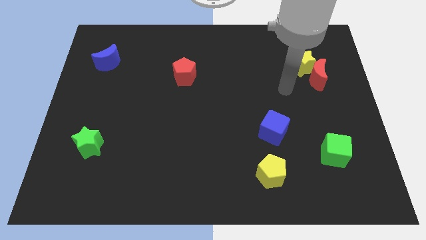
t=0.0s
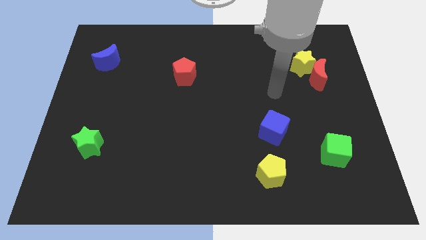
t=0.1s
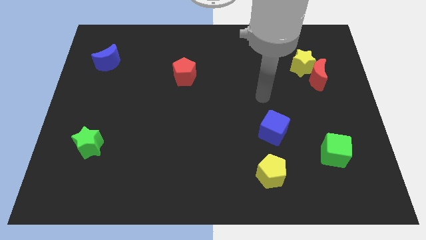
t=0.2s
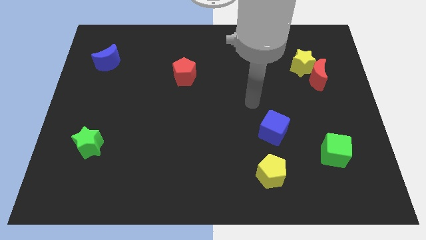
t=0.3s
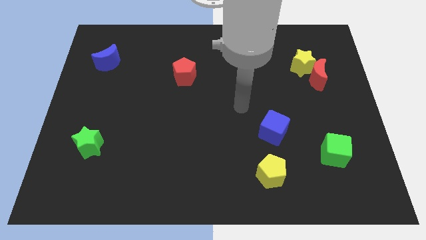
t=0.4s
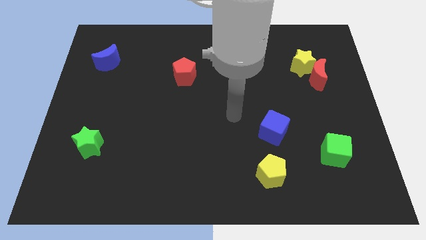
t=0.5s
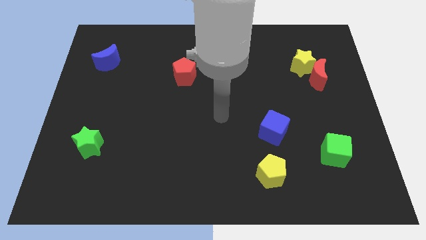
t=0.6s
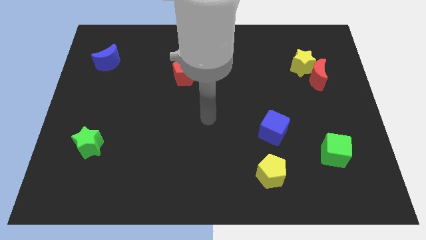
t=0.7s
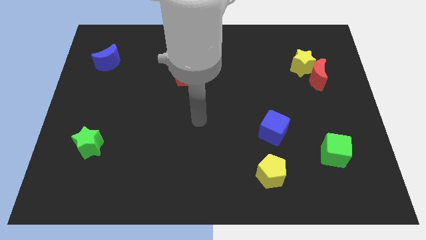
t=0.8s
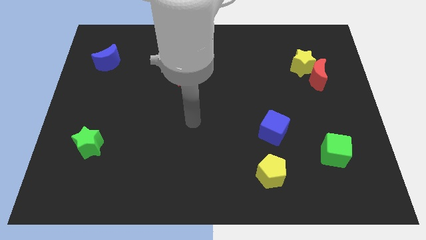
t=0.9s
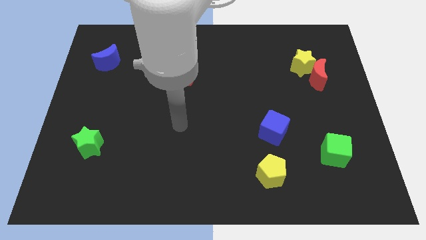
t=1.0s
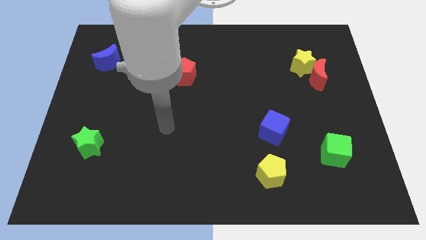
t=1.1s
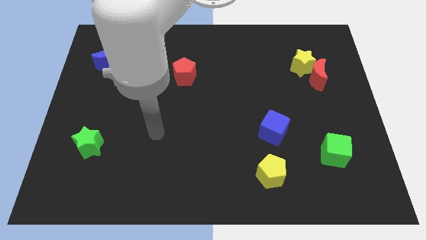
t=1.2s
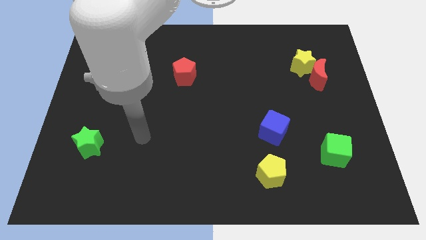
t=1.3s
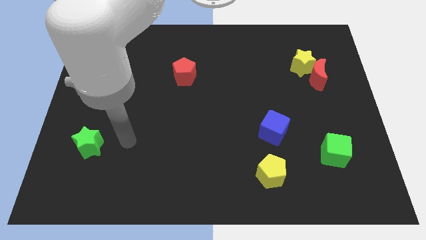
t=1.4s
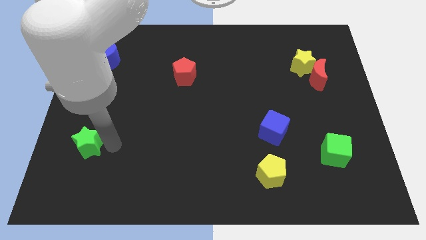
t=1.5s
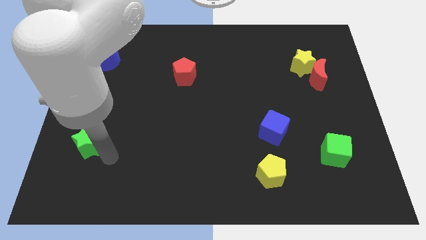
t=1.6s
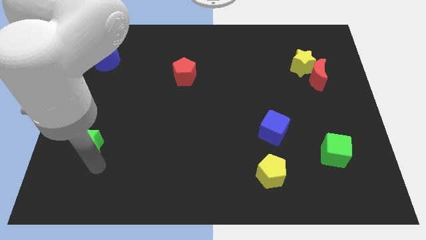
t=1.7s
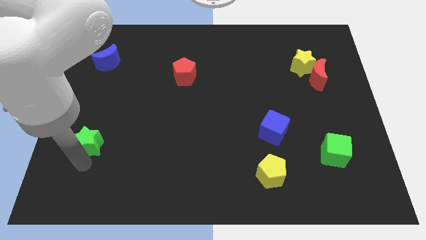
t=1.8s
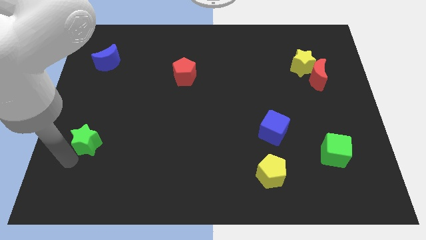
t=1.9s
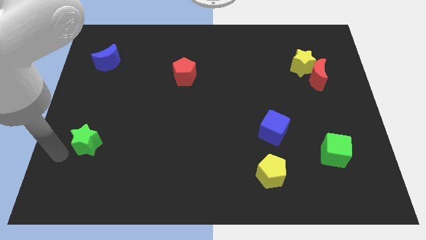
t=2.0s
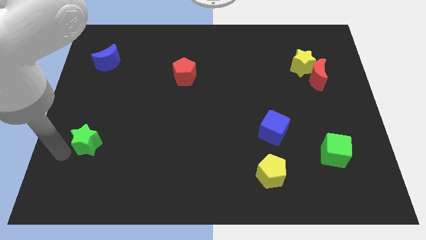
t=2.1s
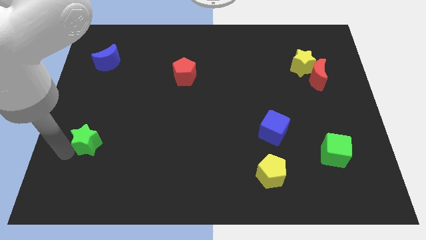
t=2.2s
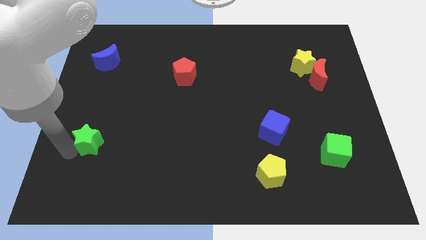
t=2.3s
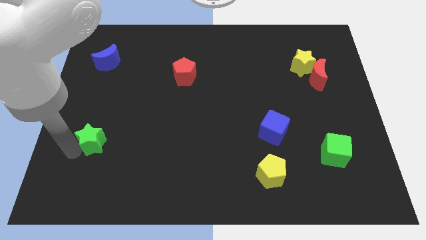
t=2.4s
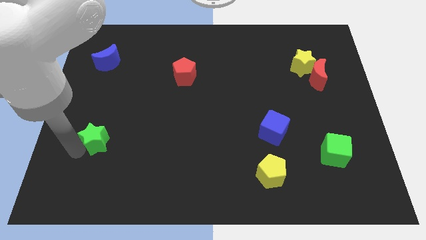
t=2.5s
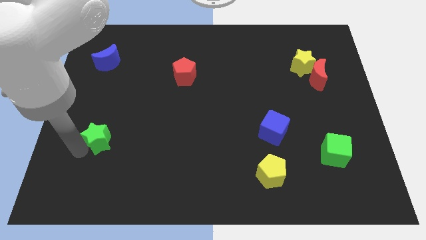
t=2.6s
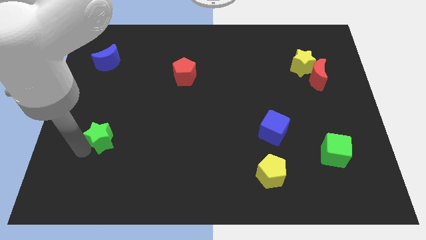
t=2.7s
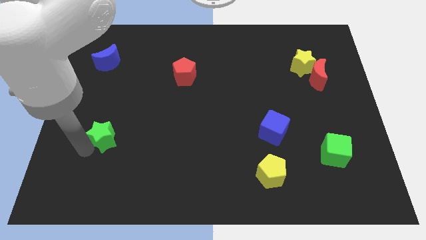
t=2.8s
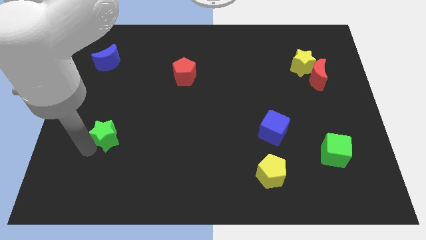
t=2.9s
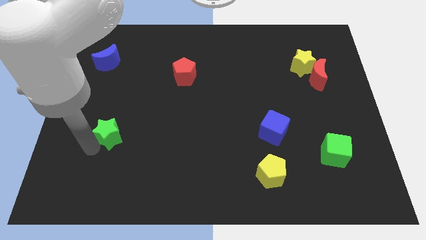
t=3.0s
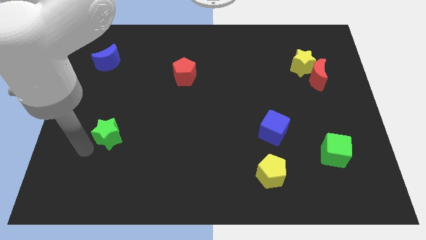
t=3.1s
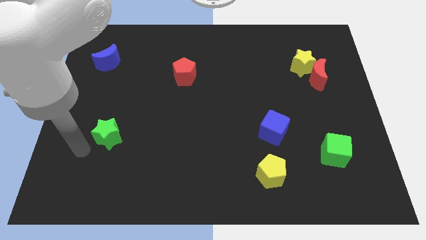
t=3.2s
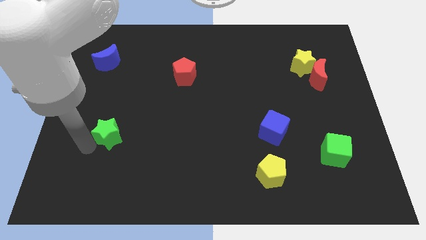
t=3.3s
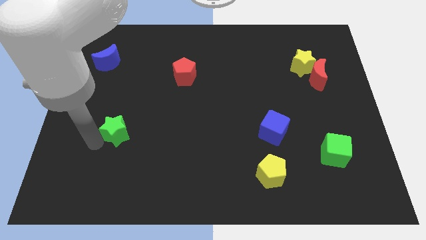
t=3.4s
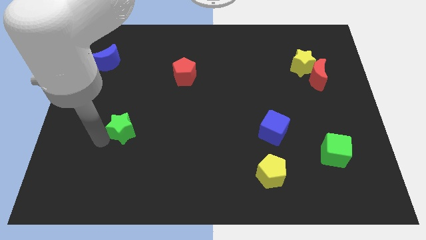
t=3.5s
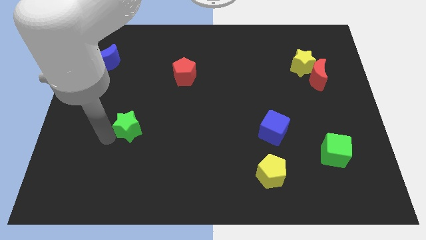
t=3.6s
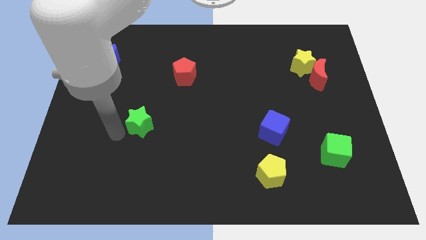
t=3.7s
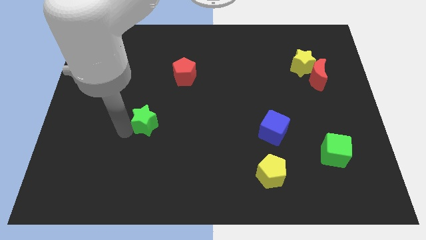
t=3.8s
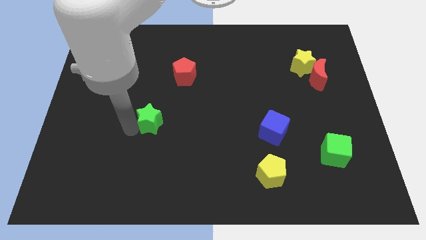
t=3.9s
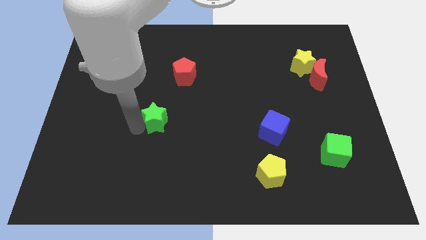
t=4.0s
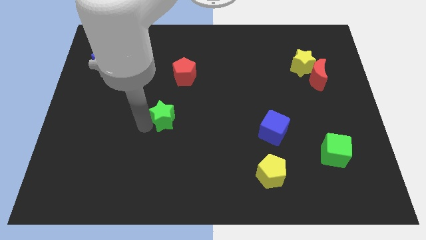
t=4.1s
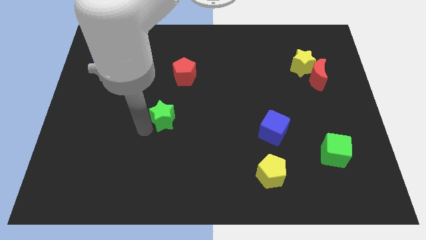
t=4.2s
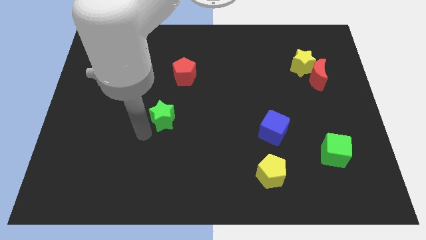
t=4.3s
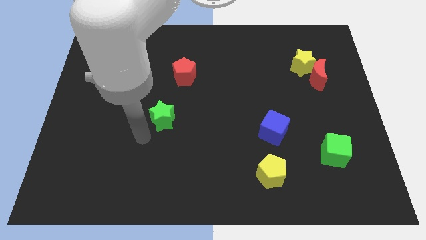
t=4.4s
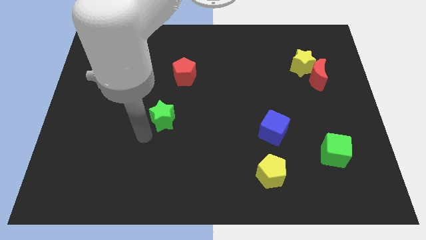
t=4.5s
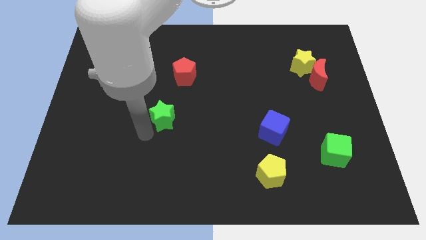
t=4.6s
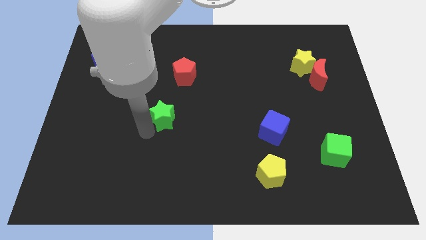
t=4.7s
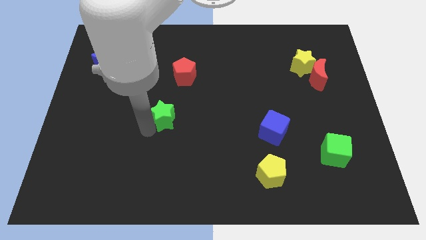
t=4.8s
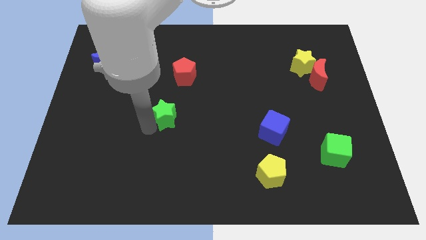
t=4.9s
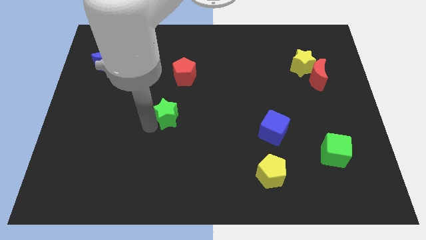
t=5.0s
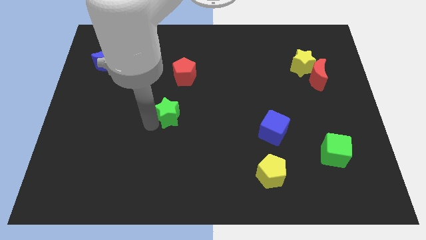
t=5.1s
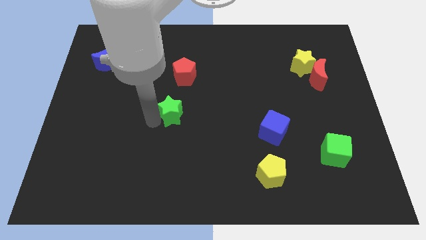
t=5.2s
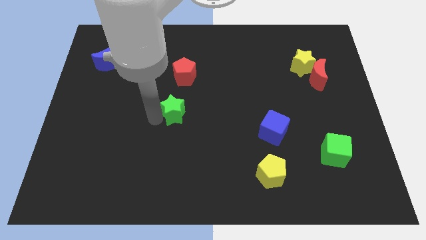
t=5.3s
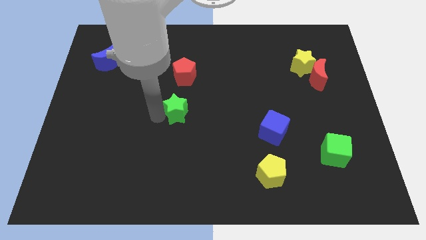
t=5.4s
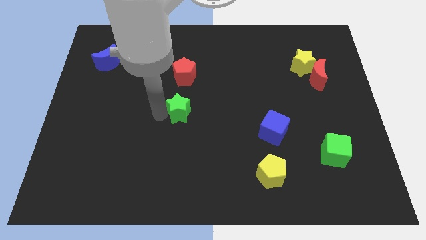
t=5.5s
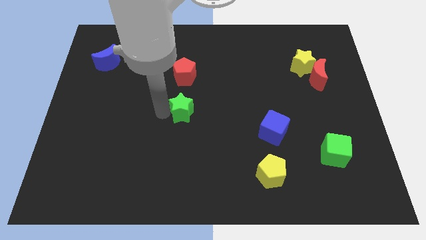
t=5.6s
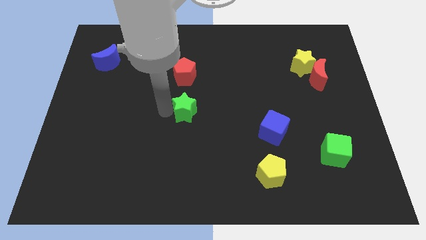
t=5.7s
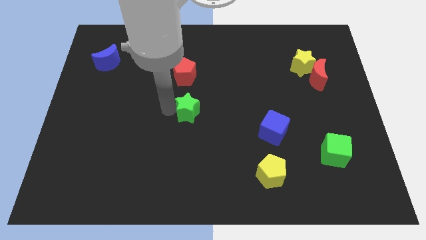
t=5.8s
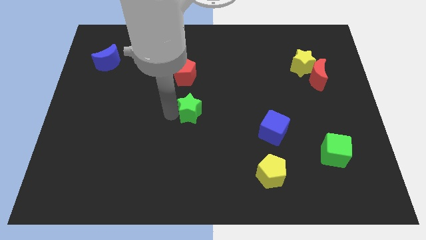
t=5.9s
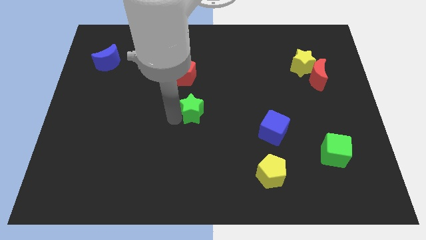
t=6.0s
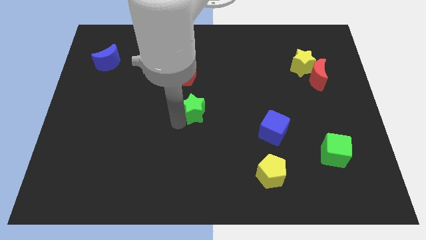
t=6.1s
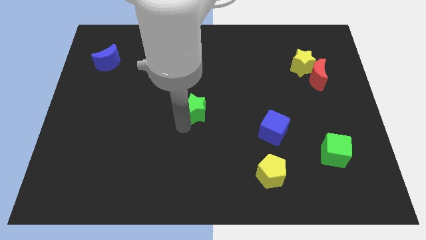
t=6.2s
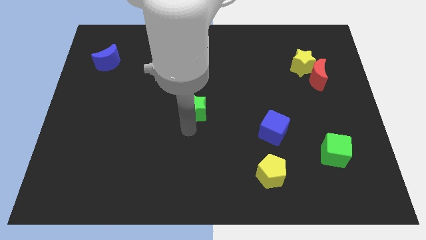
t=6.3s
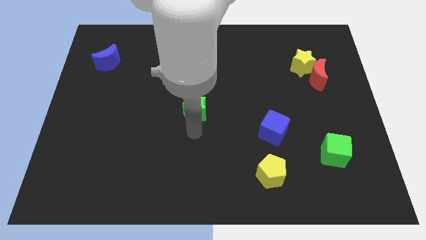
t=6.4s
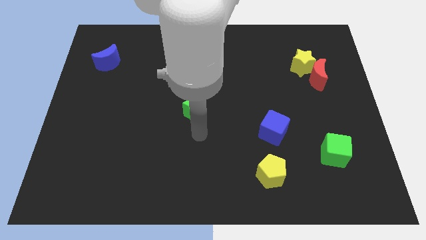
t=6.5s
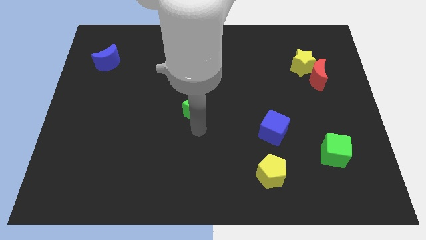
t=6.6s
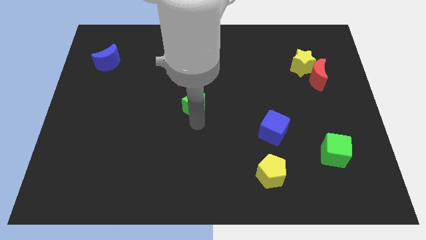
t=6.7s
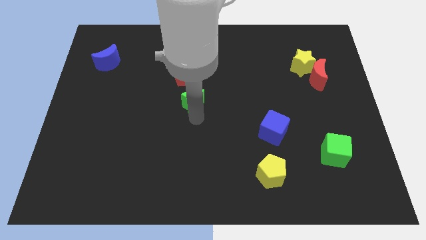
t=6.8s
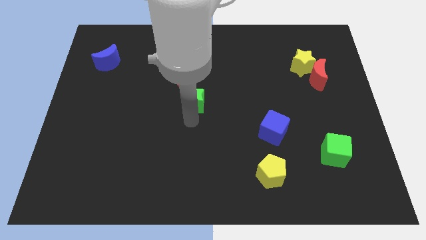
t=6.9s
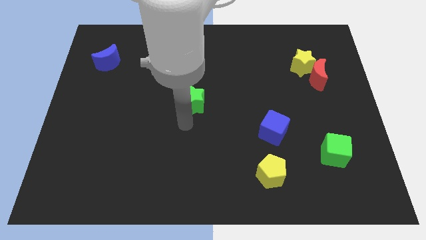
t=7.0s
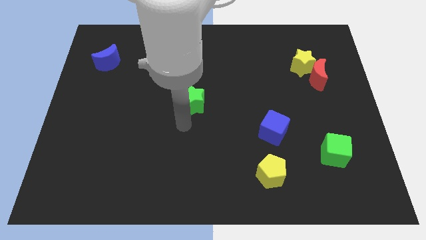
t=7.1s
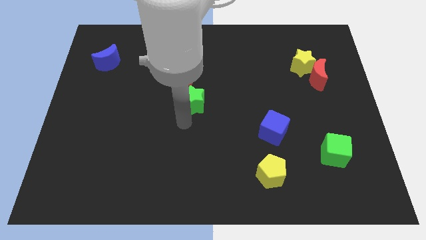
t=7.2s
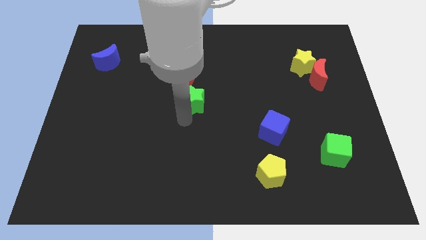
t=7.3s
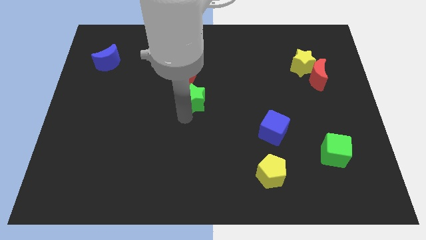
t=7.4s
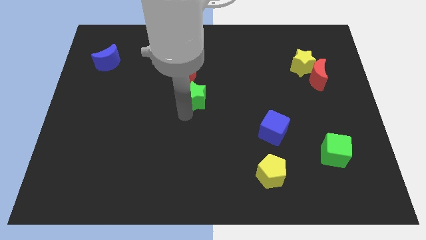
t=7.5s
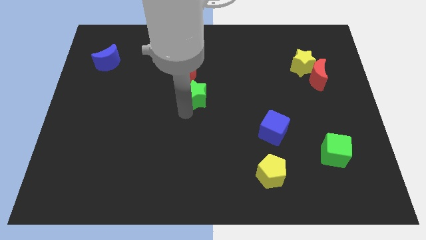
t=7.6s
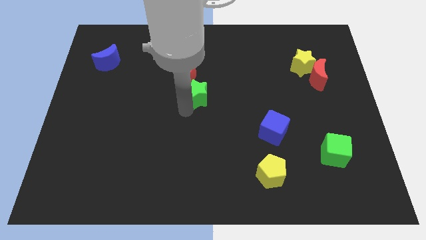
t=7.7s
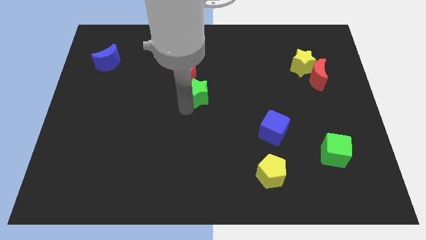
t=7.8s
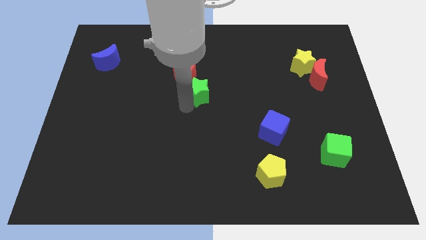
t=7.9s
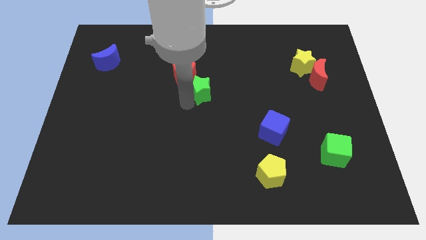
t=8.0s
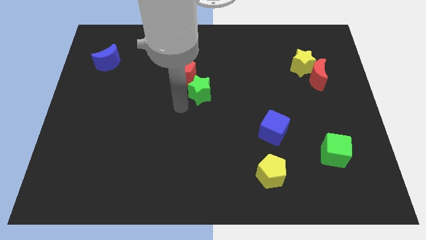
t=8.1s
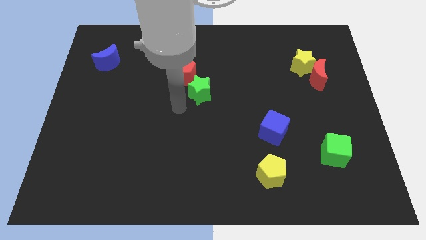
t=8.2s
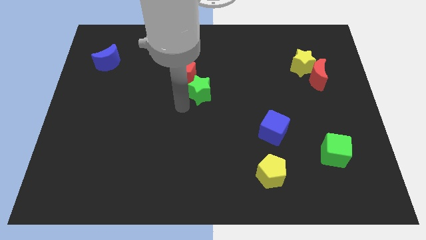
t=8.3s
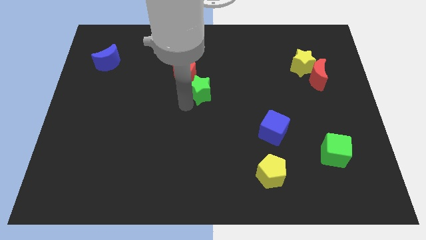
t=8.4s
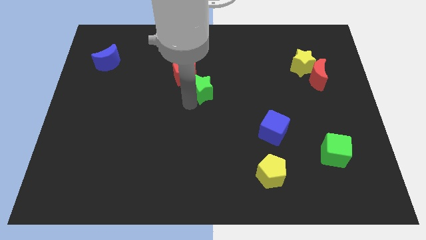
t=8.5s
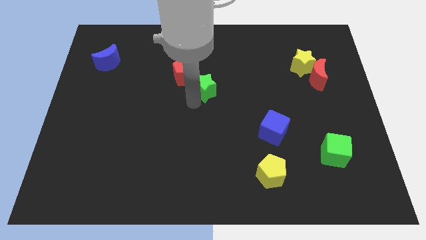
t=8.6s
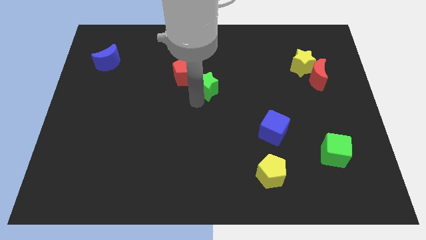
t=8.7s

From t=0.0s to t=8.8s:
push the green star just right of the red pentagon
